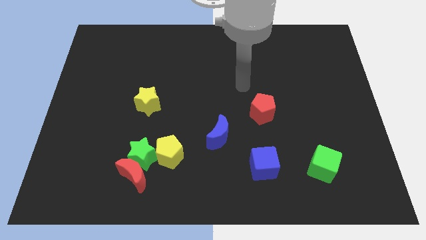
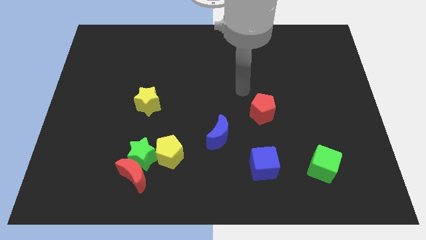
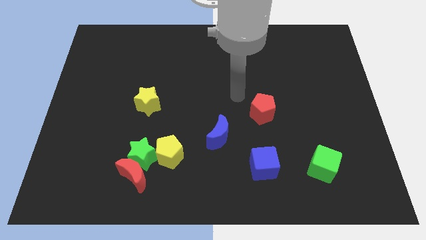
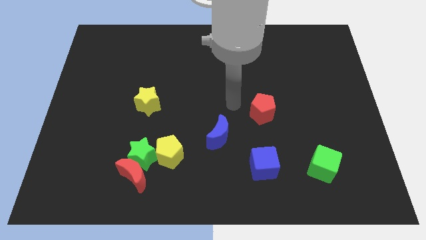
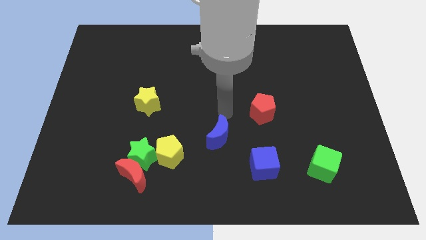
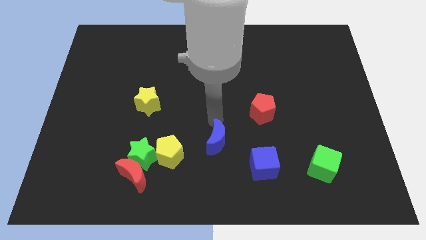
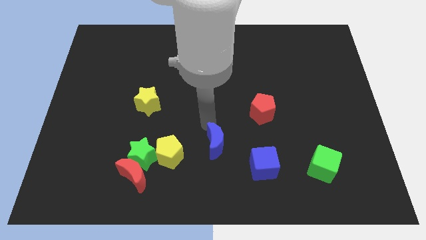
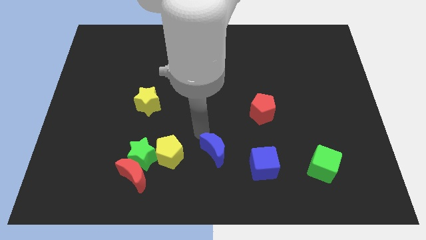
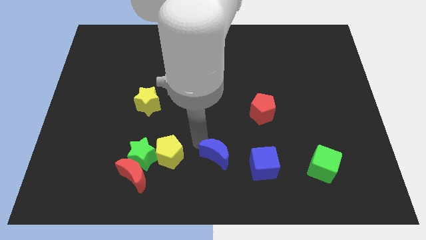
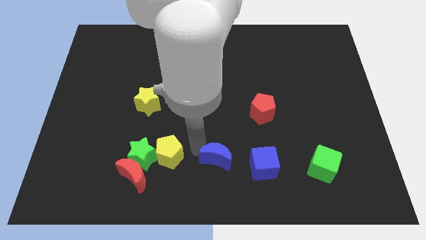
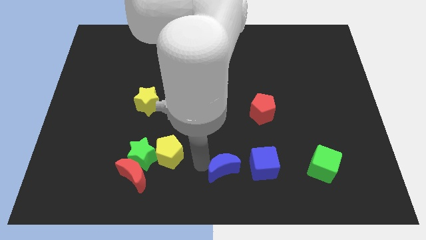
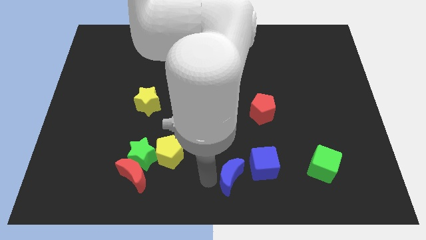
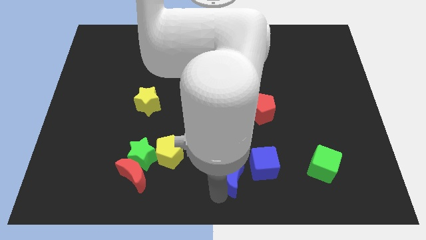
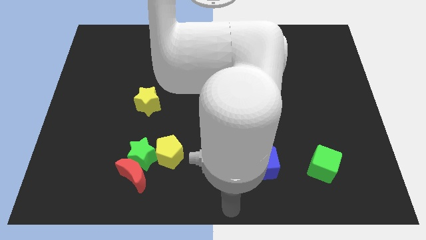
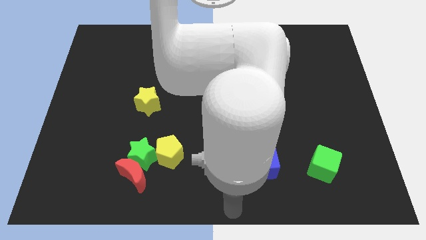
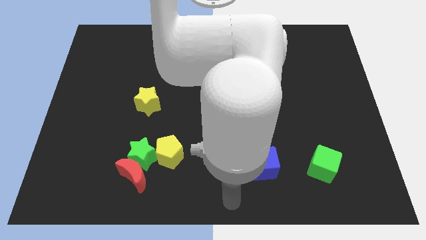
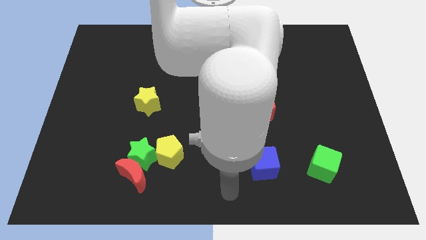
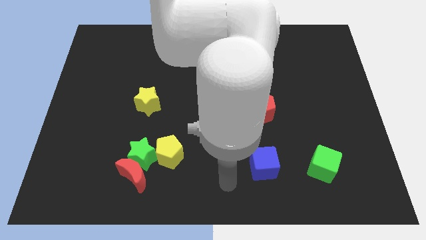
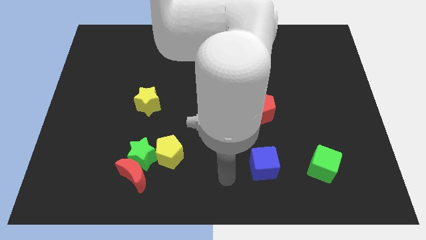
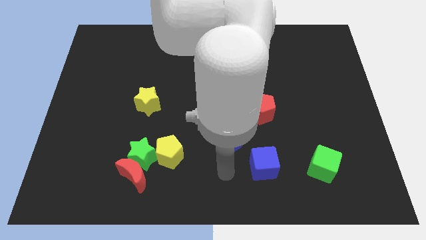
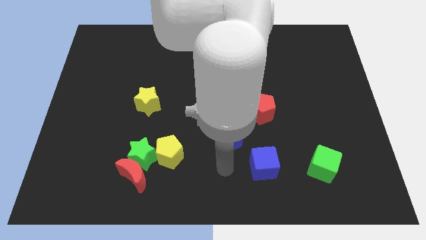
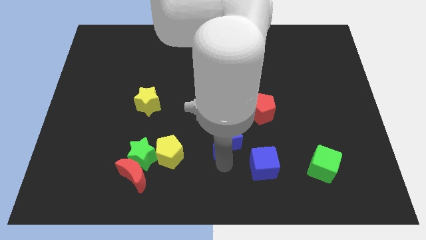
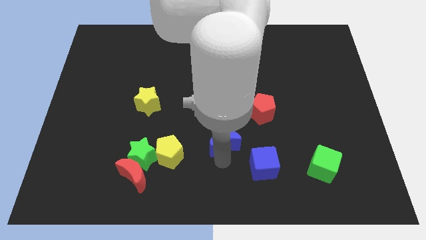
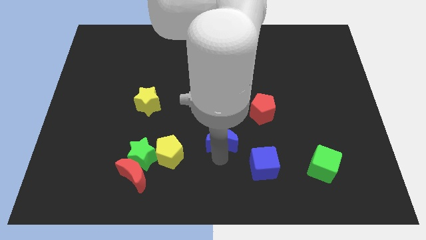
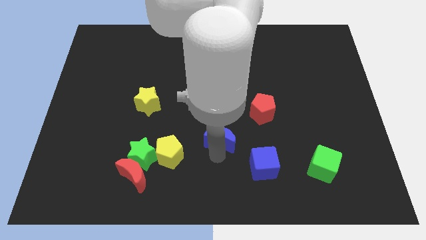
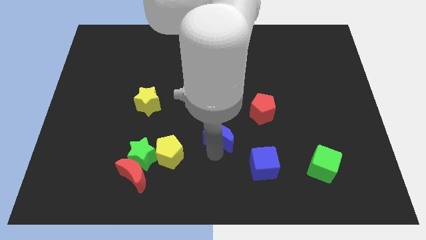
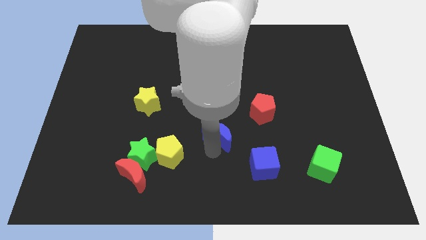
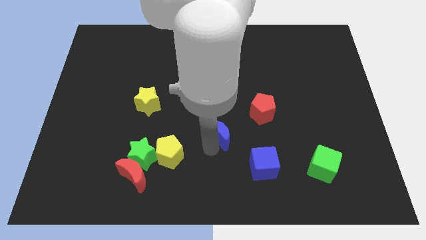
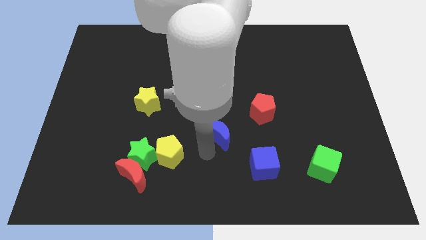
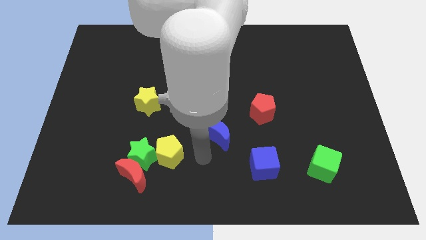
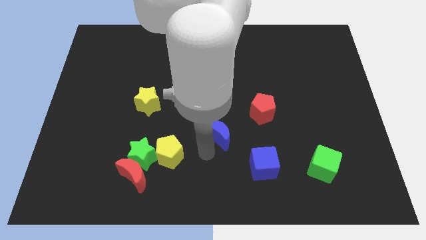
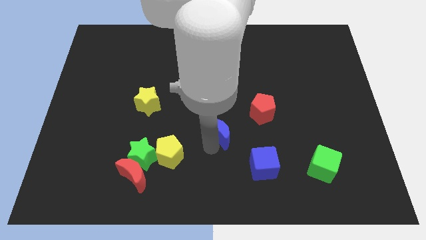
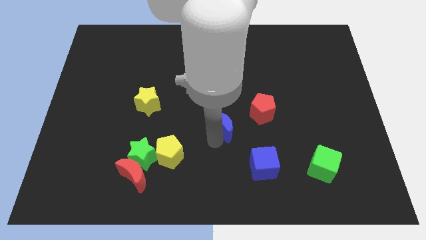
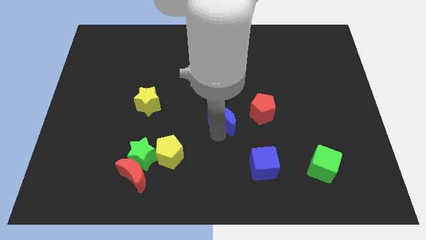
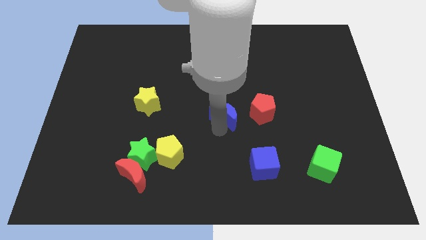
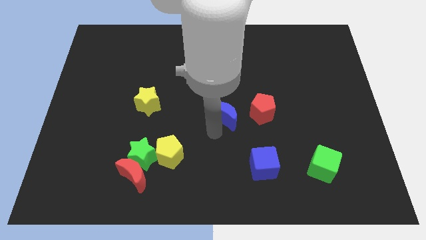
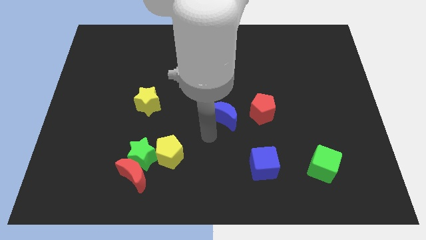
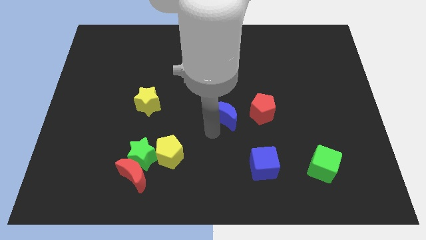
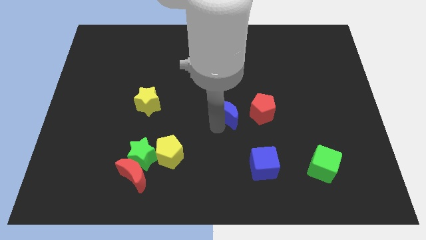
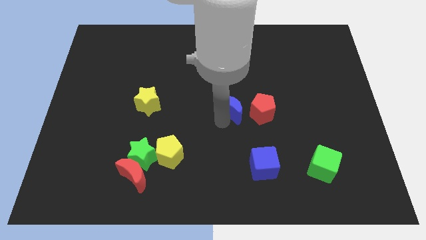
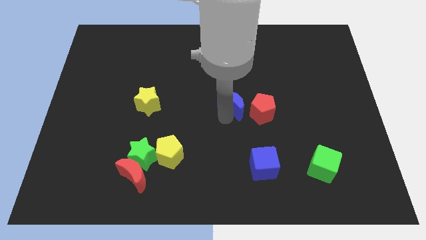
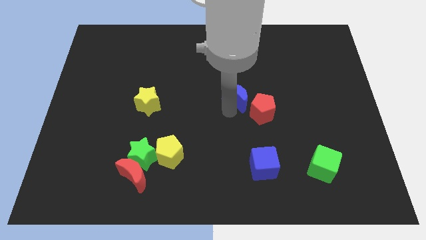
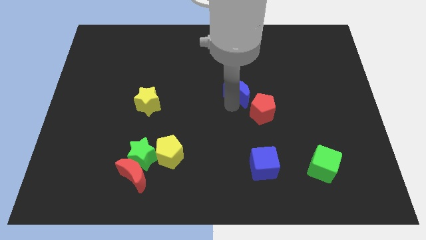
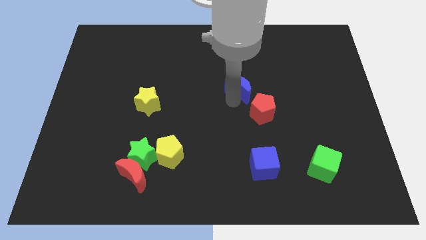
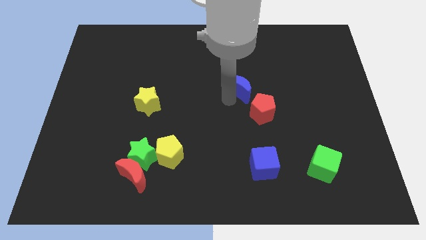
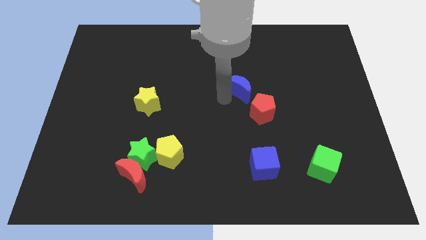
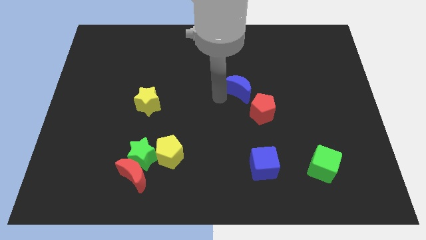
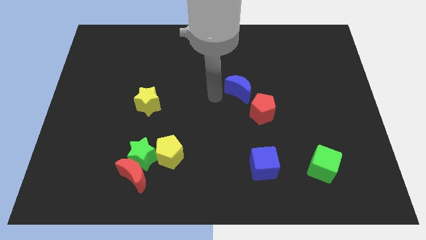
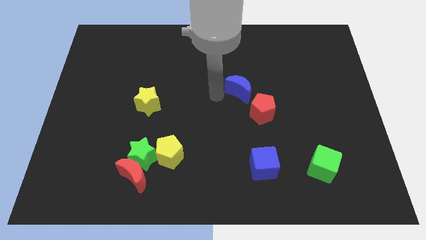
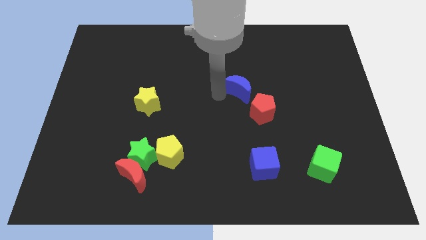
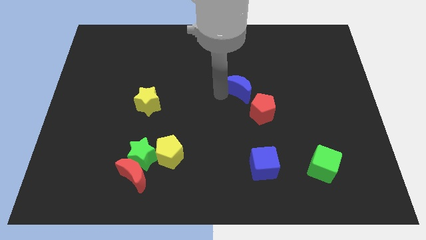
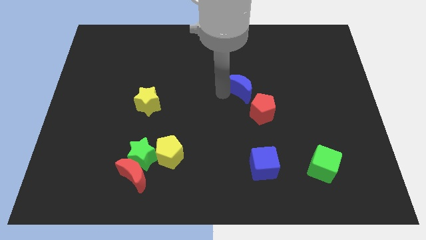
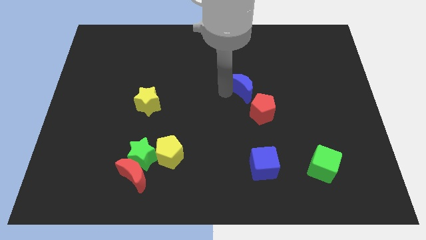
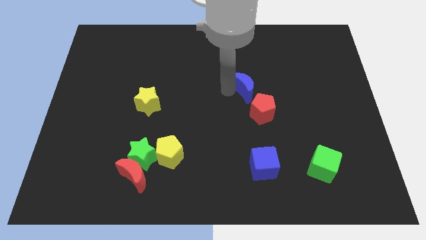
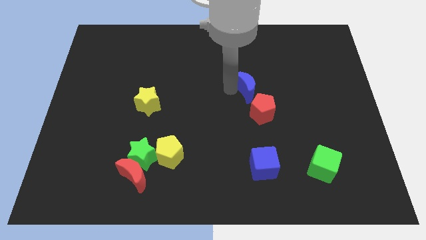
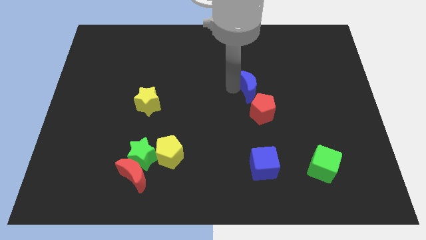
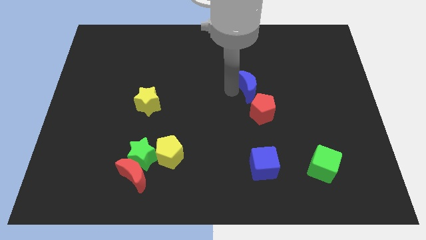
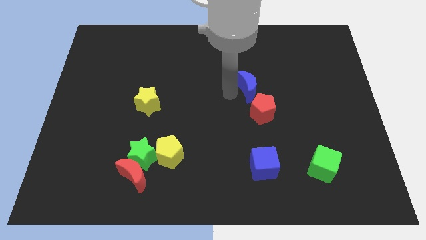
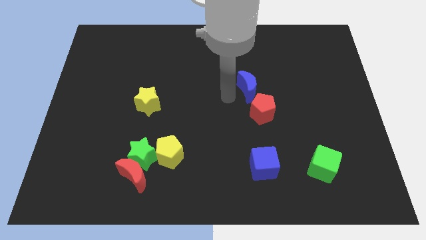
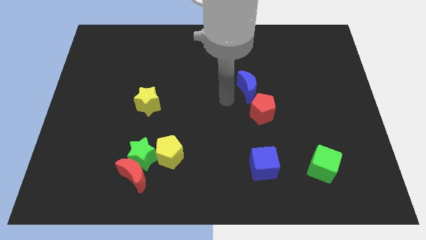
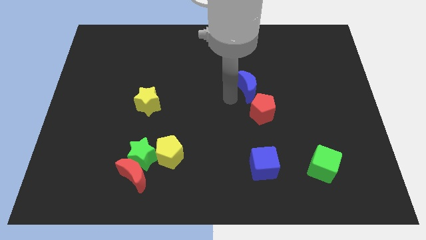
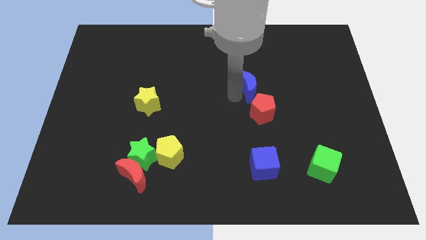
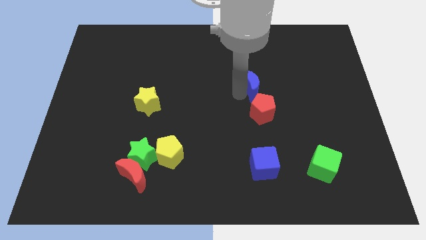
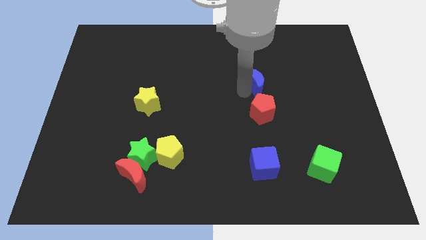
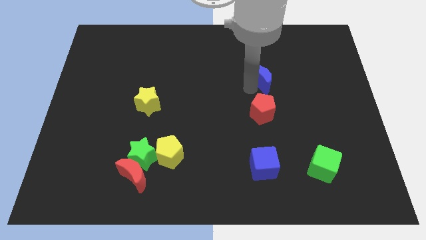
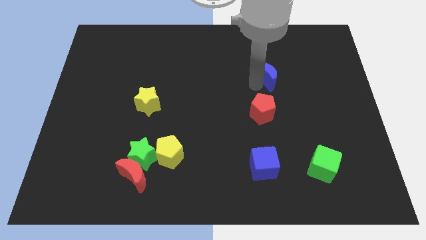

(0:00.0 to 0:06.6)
slide the blue moon diagonally up and to the right

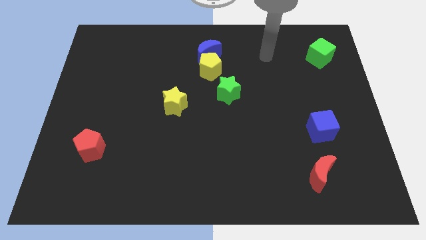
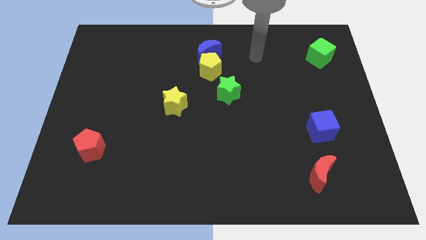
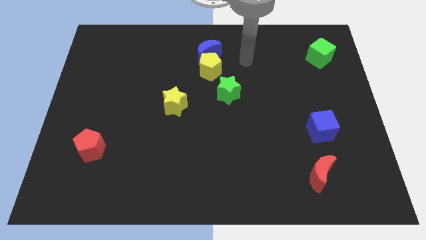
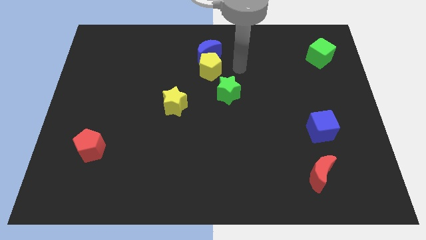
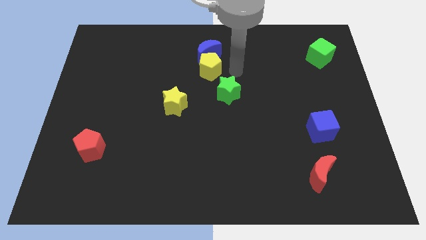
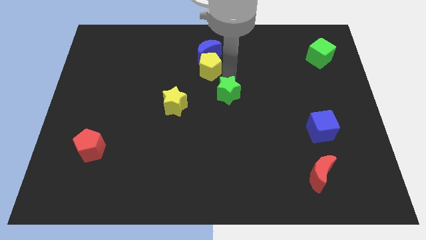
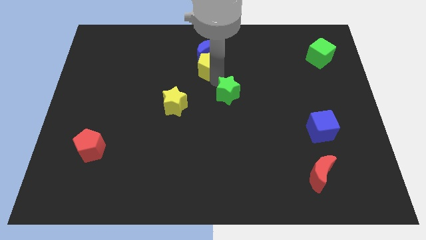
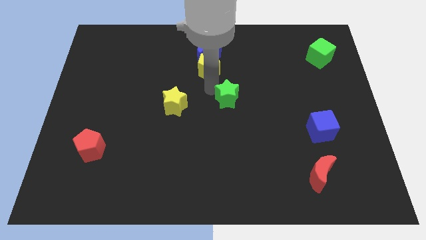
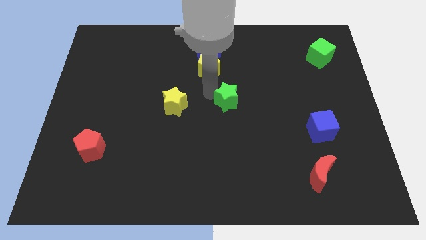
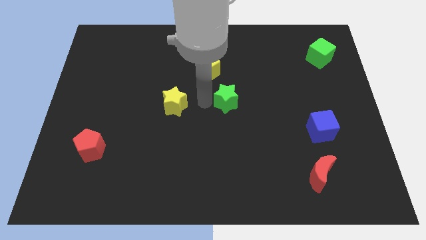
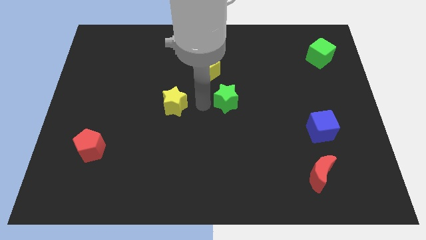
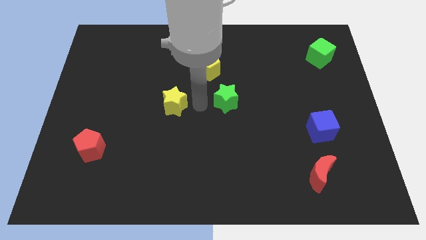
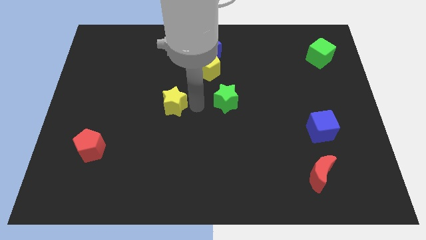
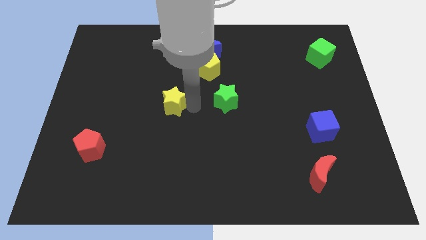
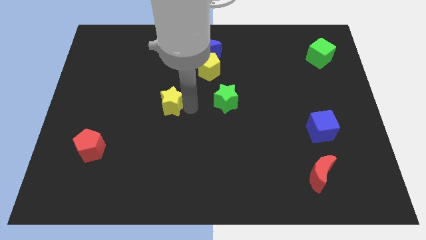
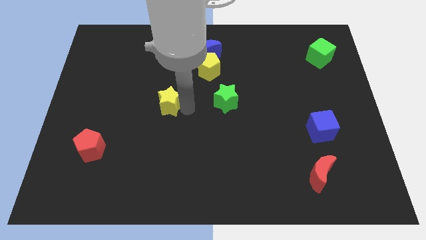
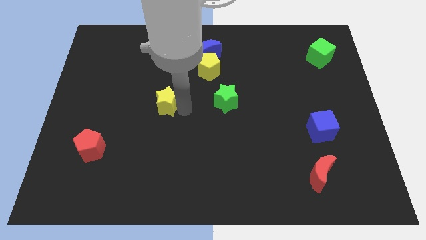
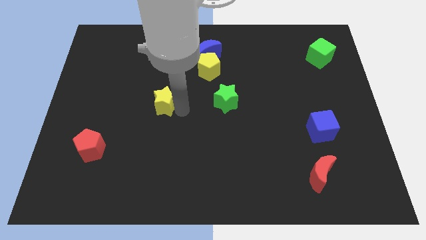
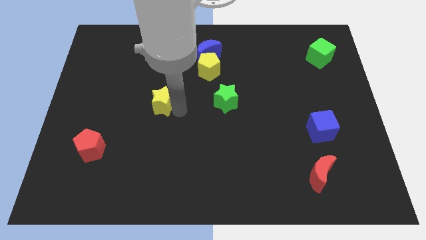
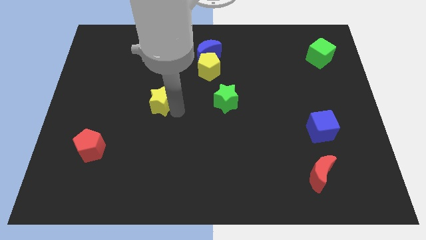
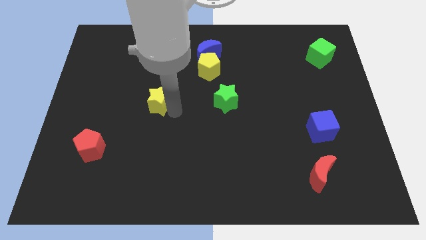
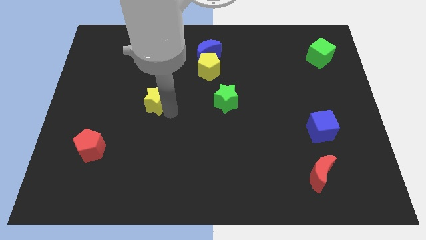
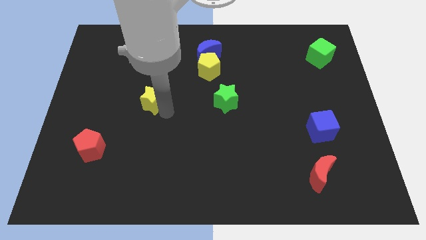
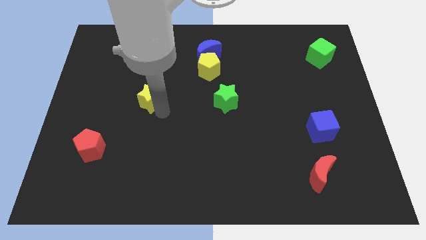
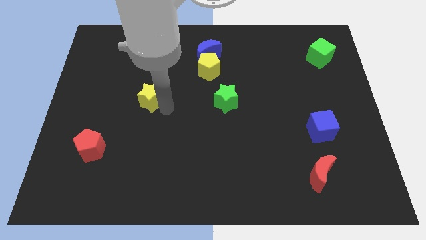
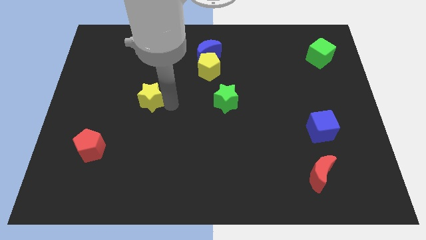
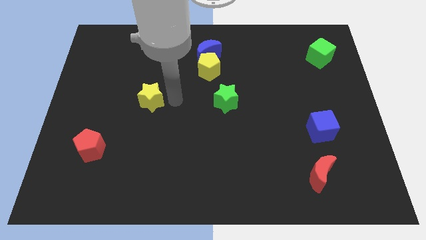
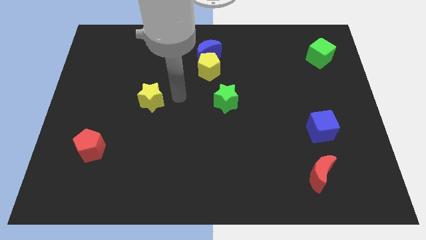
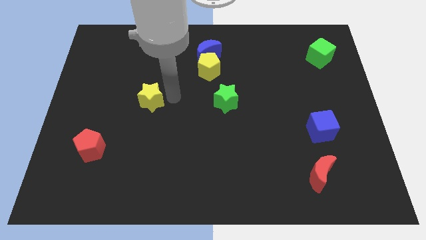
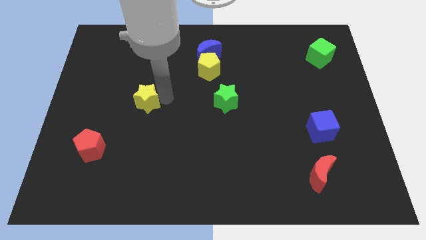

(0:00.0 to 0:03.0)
slightly push the yellow star left
